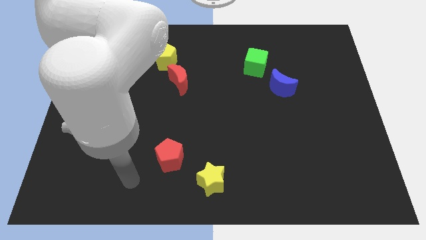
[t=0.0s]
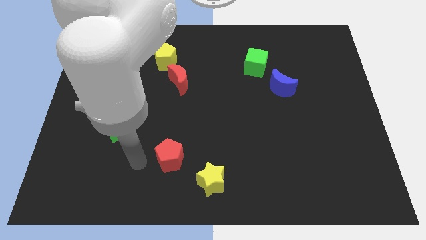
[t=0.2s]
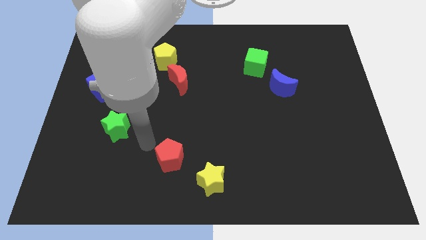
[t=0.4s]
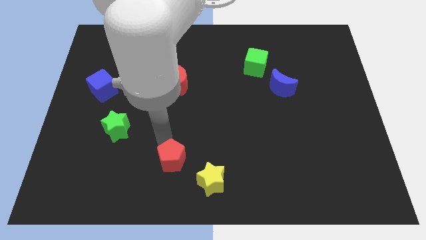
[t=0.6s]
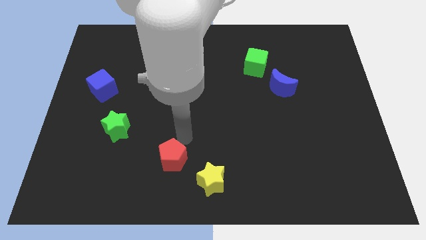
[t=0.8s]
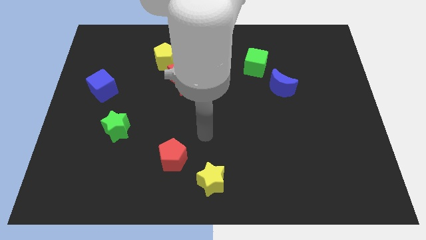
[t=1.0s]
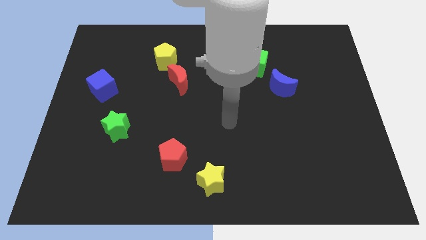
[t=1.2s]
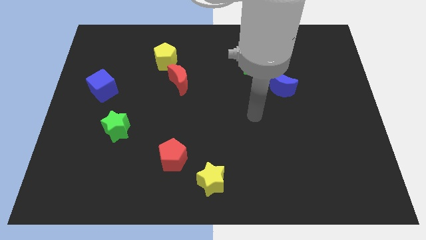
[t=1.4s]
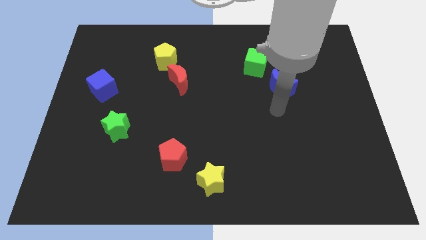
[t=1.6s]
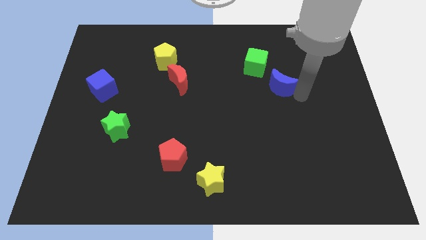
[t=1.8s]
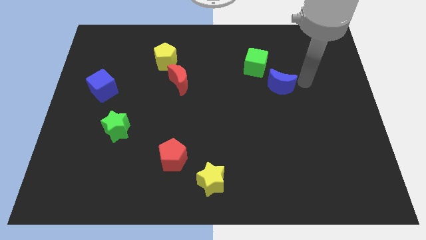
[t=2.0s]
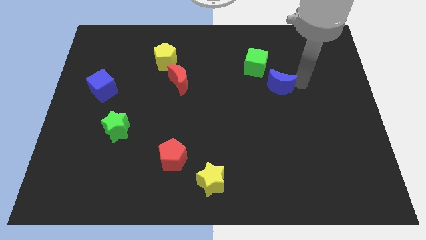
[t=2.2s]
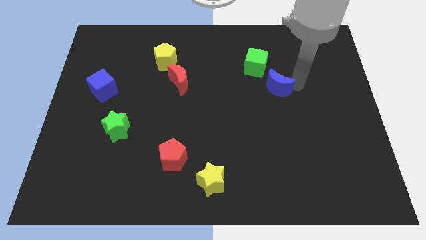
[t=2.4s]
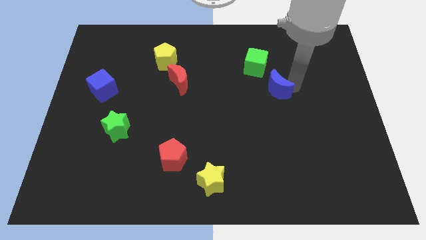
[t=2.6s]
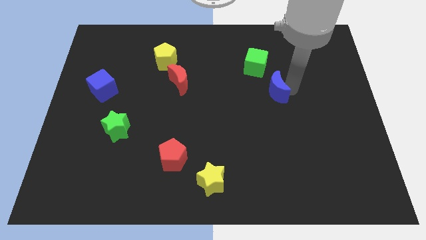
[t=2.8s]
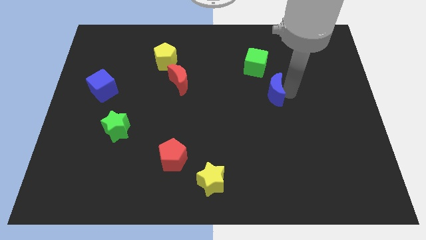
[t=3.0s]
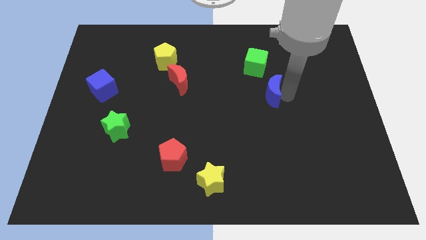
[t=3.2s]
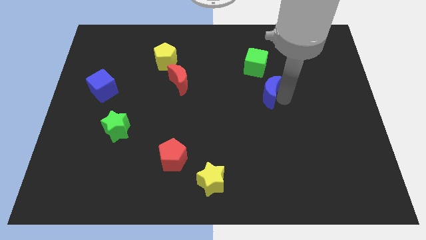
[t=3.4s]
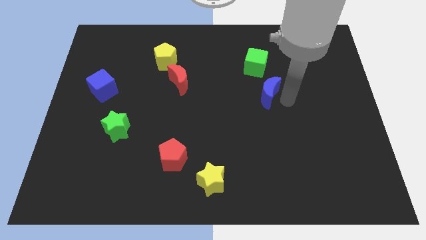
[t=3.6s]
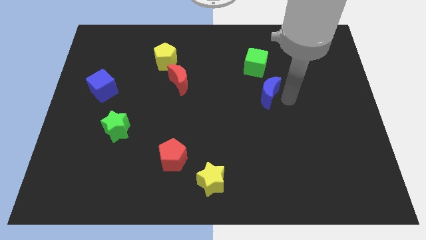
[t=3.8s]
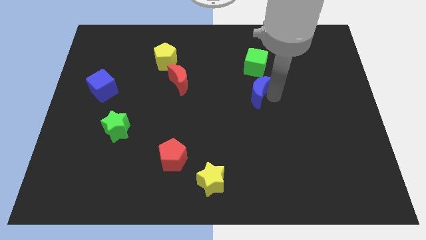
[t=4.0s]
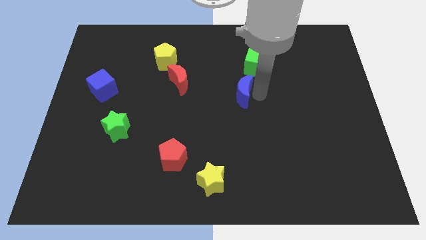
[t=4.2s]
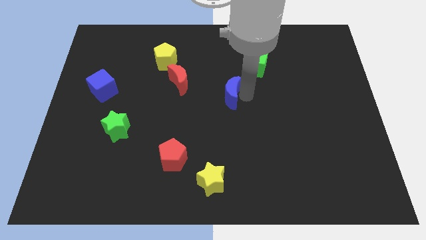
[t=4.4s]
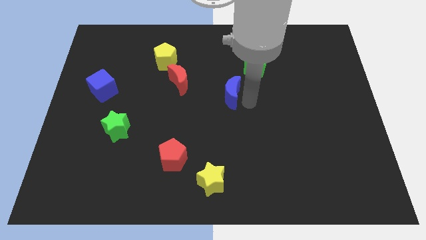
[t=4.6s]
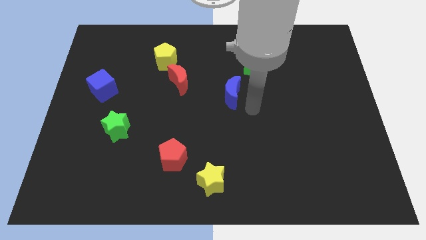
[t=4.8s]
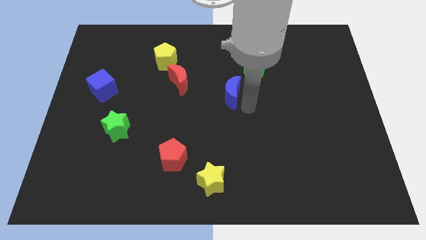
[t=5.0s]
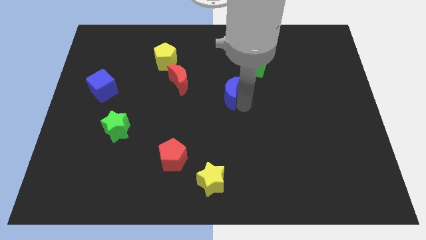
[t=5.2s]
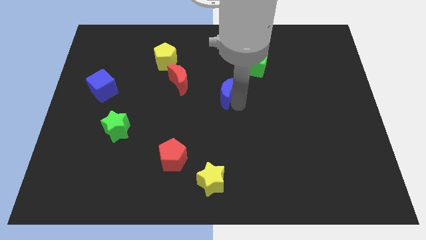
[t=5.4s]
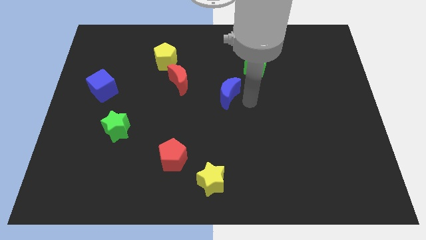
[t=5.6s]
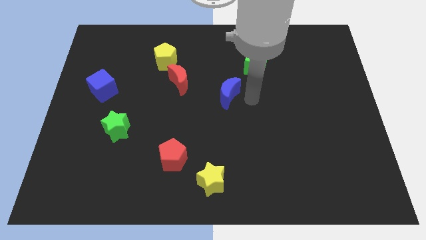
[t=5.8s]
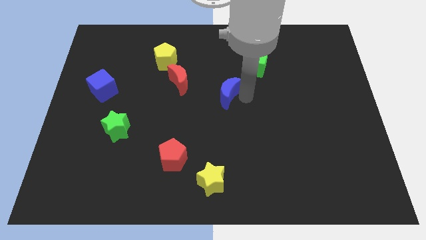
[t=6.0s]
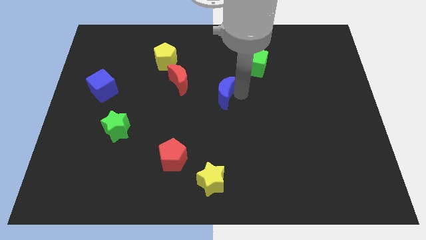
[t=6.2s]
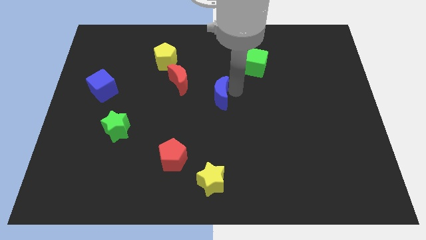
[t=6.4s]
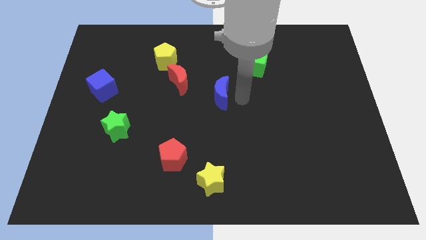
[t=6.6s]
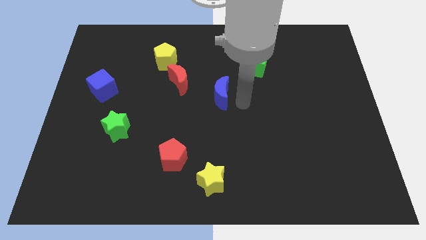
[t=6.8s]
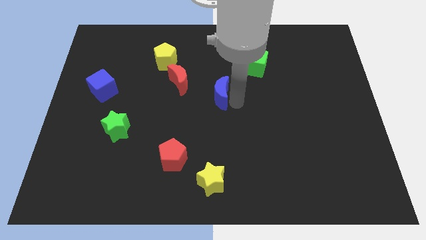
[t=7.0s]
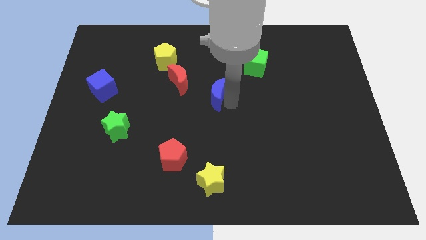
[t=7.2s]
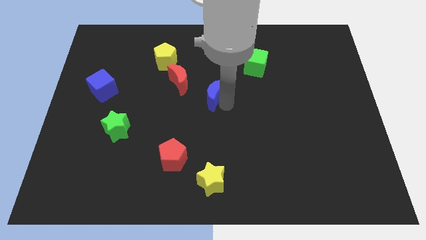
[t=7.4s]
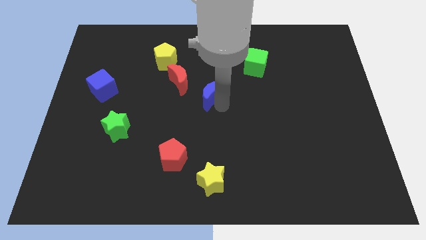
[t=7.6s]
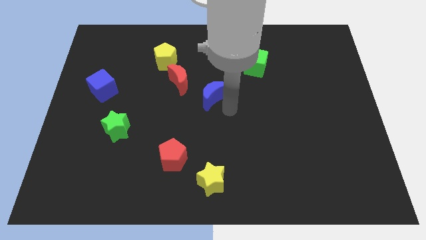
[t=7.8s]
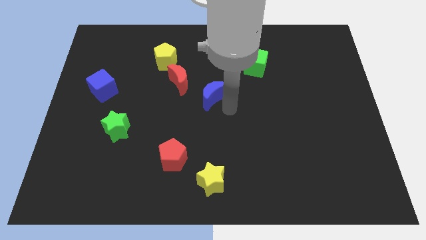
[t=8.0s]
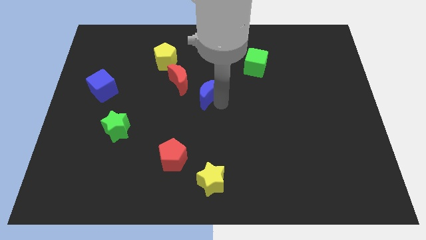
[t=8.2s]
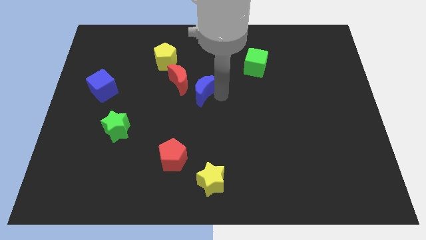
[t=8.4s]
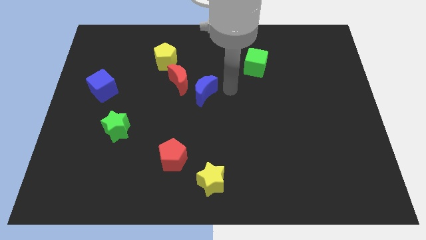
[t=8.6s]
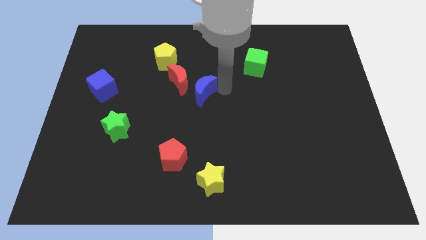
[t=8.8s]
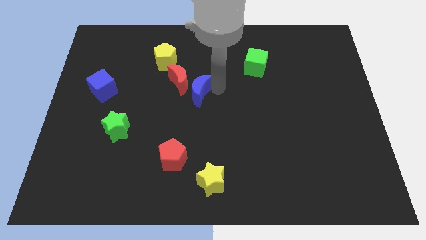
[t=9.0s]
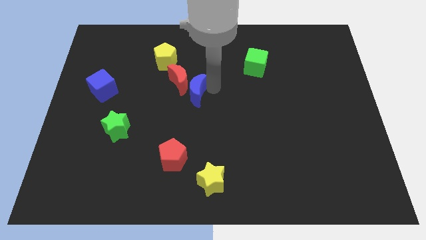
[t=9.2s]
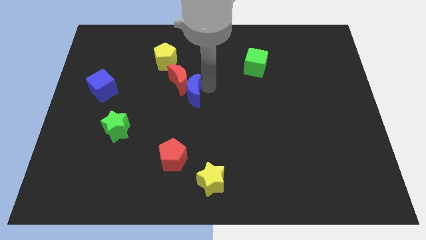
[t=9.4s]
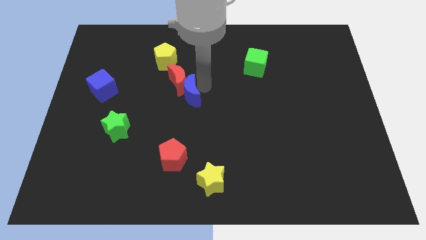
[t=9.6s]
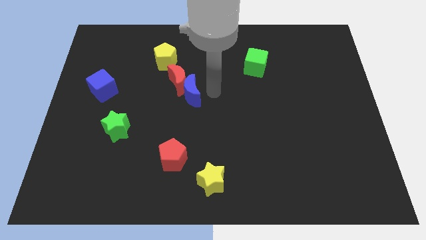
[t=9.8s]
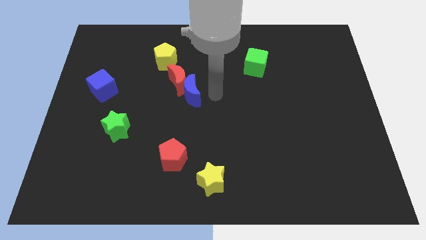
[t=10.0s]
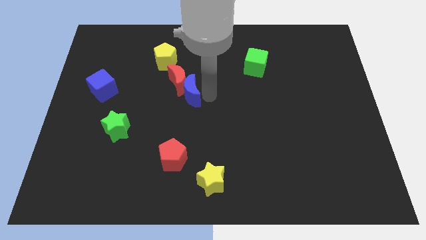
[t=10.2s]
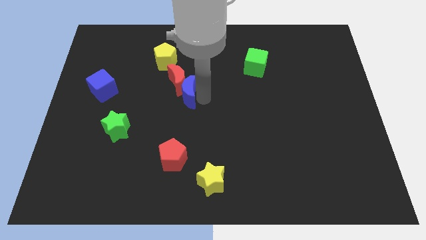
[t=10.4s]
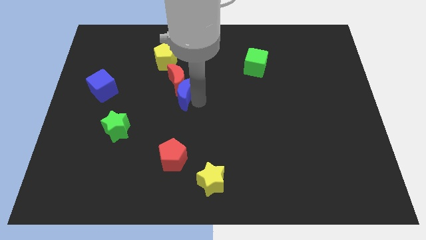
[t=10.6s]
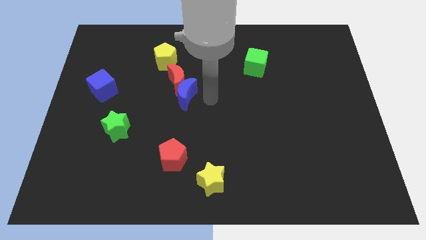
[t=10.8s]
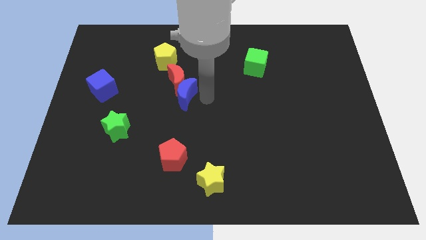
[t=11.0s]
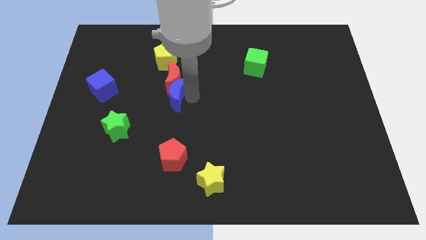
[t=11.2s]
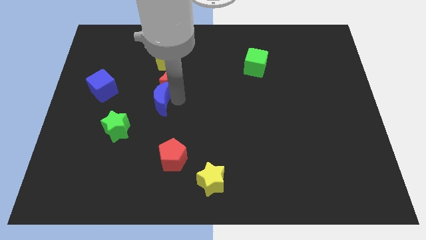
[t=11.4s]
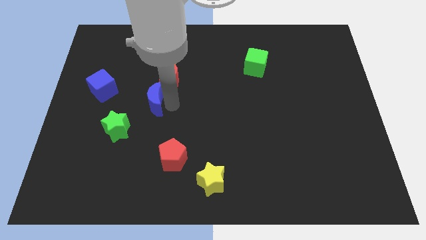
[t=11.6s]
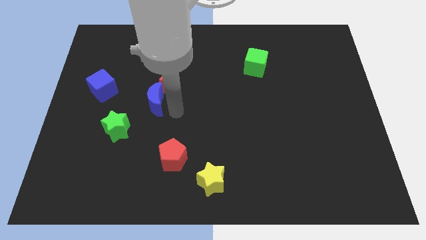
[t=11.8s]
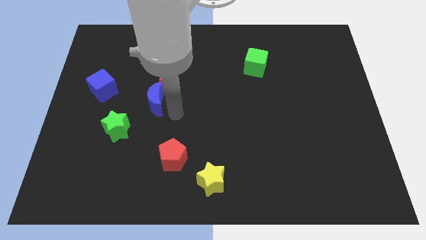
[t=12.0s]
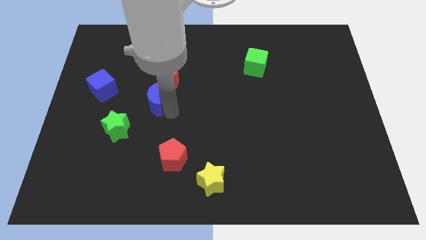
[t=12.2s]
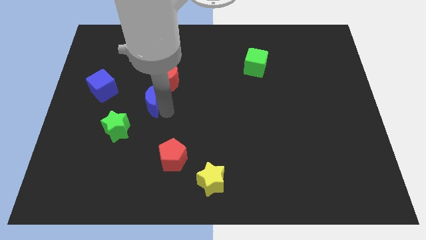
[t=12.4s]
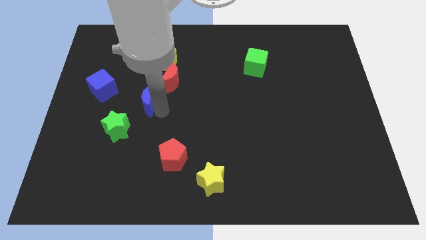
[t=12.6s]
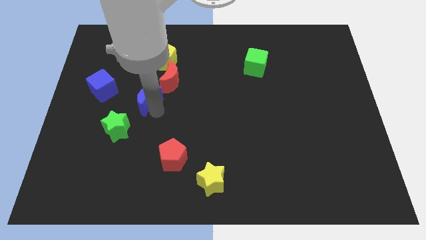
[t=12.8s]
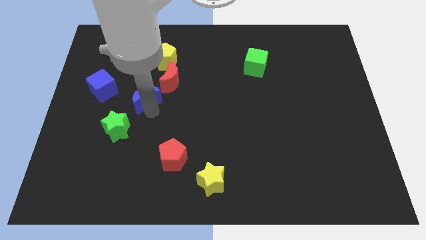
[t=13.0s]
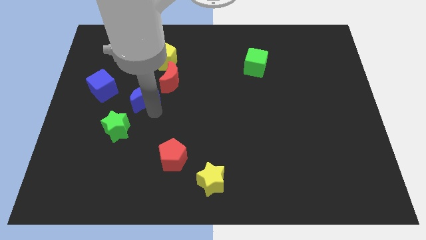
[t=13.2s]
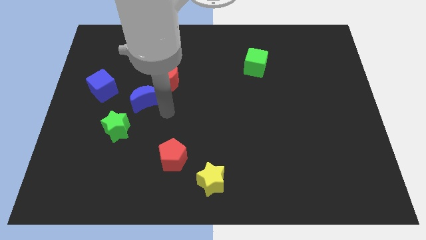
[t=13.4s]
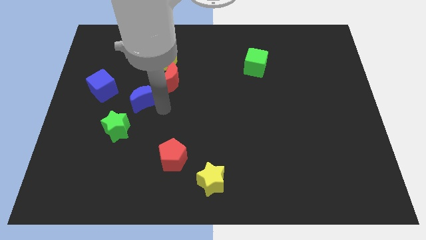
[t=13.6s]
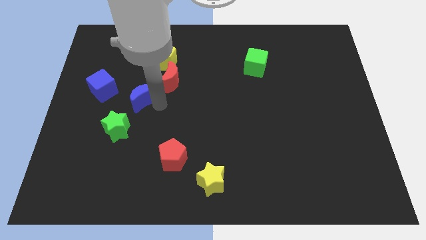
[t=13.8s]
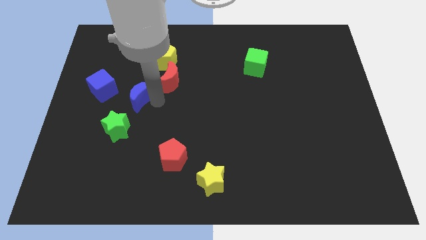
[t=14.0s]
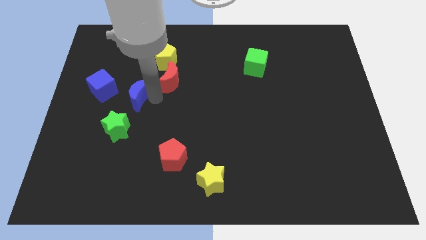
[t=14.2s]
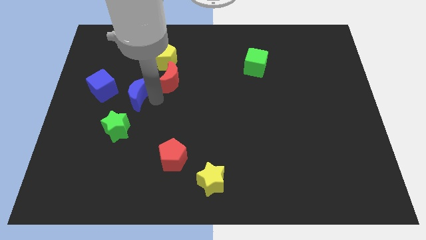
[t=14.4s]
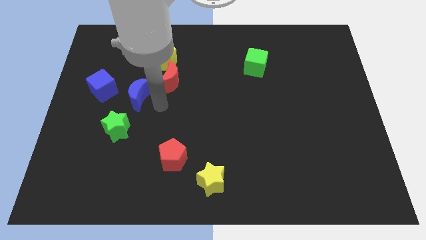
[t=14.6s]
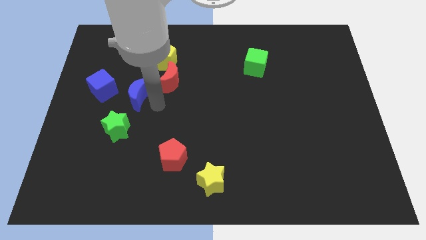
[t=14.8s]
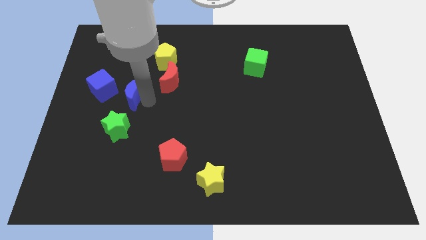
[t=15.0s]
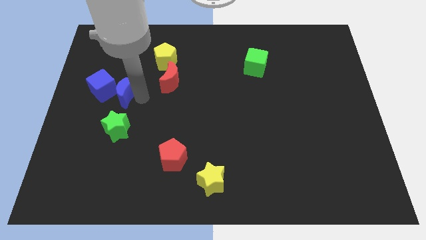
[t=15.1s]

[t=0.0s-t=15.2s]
move the blue moon to the blue cube
